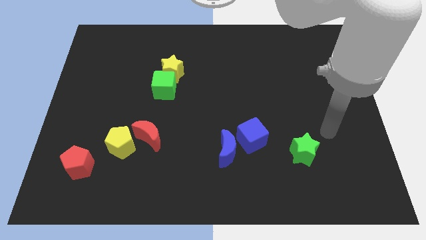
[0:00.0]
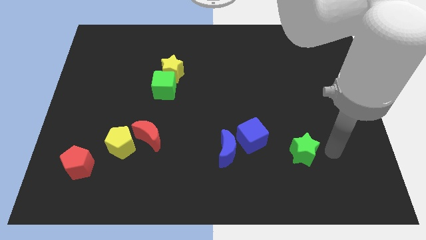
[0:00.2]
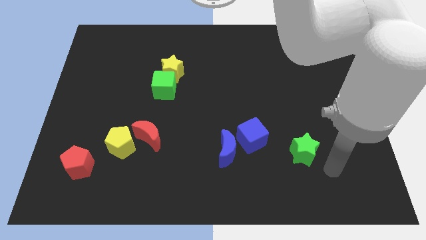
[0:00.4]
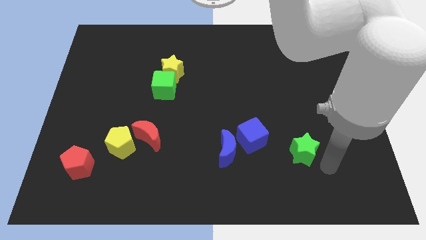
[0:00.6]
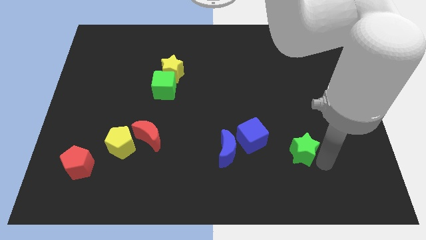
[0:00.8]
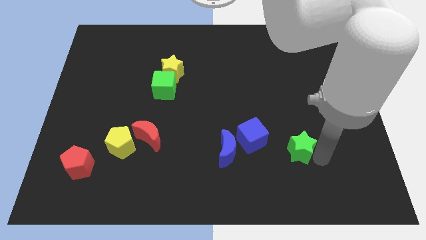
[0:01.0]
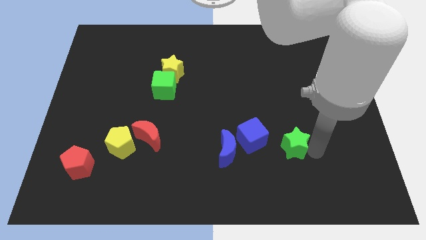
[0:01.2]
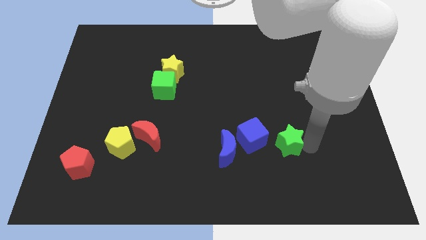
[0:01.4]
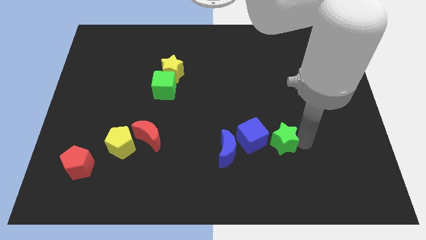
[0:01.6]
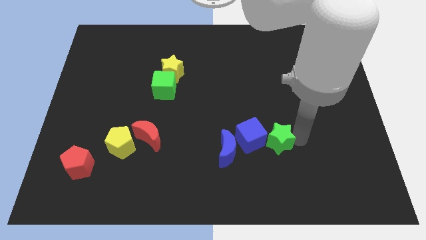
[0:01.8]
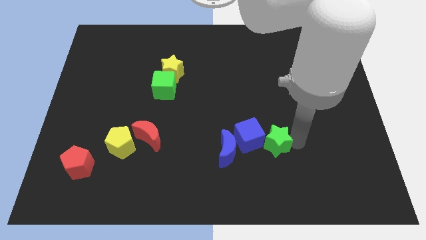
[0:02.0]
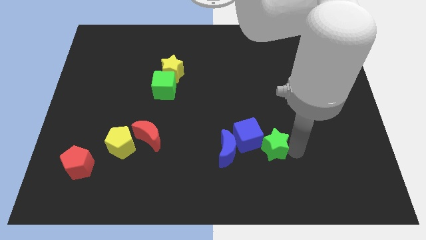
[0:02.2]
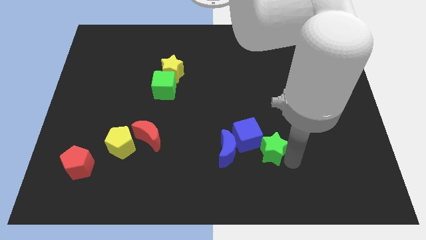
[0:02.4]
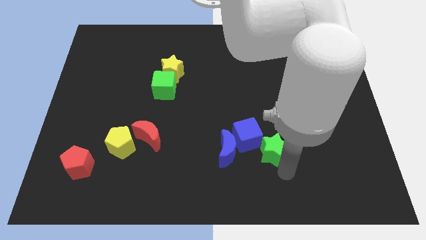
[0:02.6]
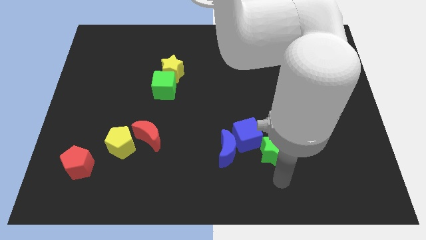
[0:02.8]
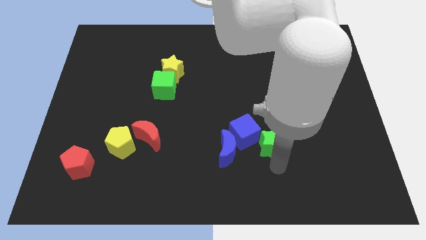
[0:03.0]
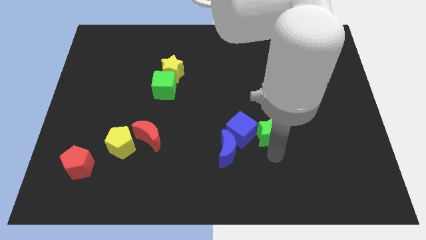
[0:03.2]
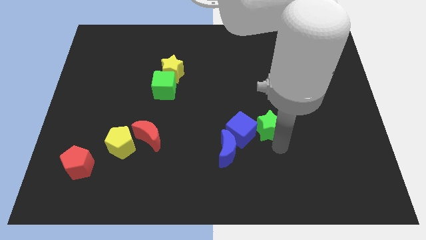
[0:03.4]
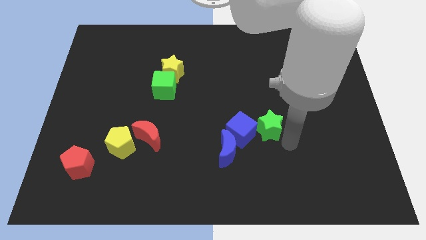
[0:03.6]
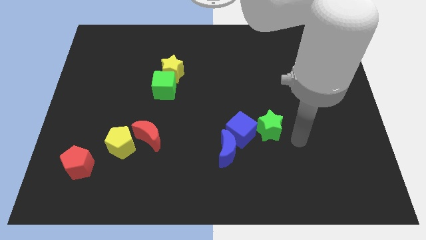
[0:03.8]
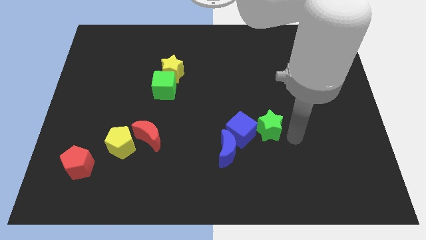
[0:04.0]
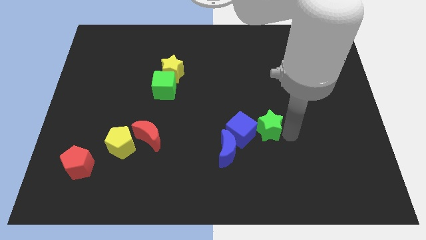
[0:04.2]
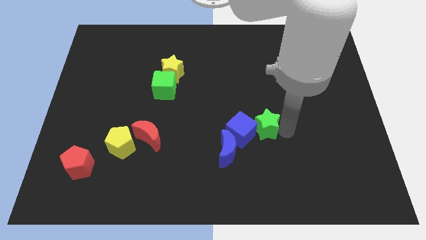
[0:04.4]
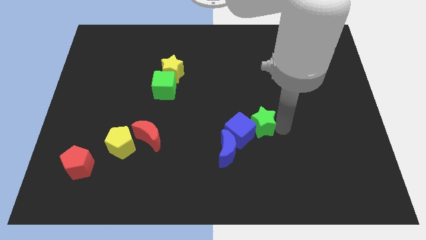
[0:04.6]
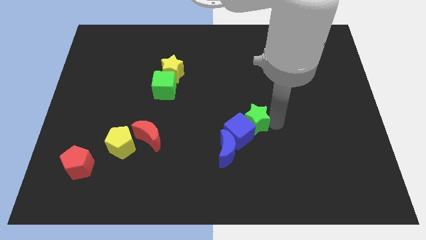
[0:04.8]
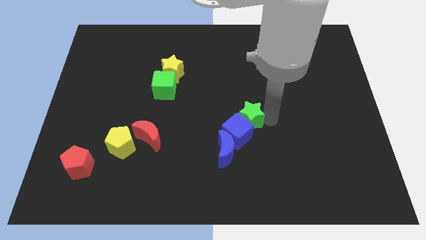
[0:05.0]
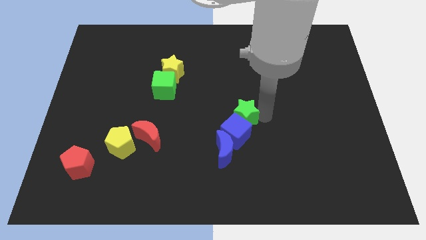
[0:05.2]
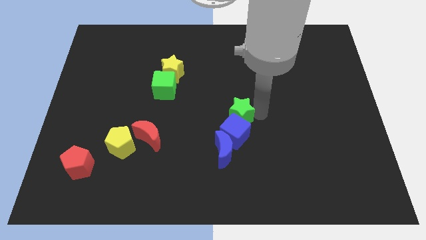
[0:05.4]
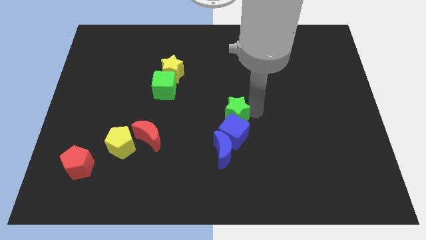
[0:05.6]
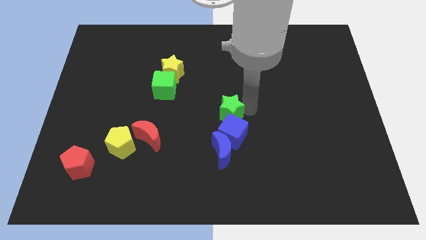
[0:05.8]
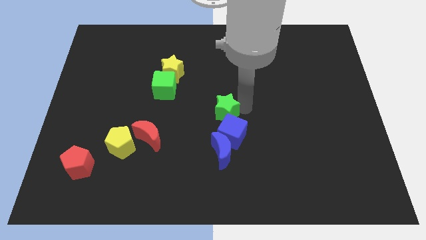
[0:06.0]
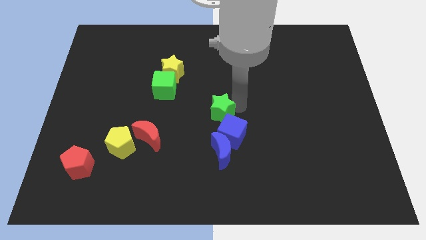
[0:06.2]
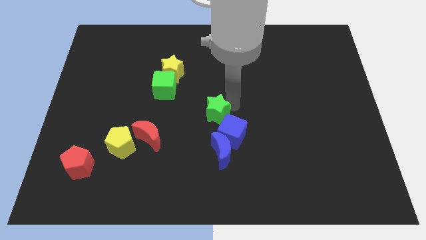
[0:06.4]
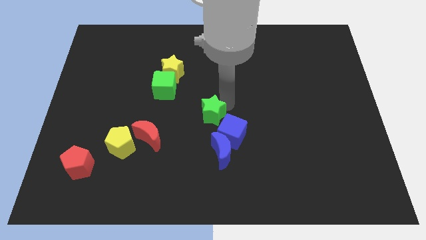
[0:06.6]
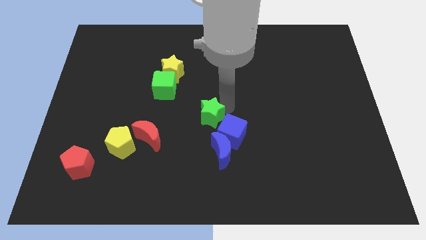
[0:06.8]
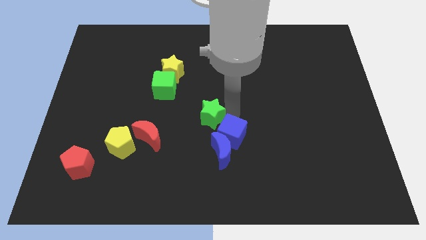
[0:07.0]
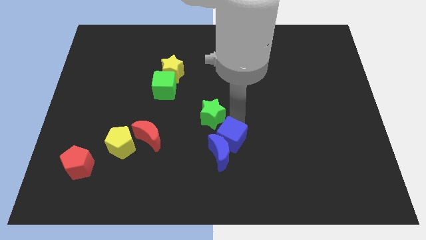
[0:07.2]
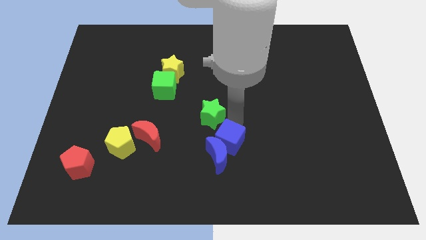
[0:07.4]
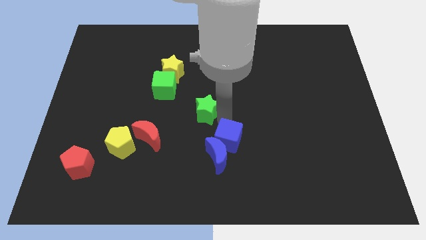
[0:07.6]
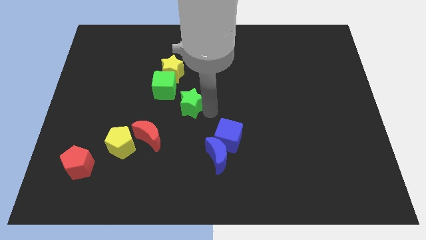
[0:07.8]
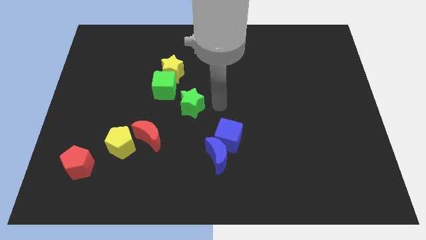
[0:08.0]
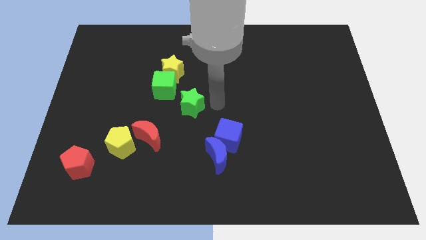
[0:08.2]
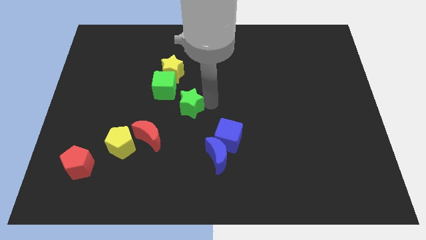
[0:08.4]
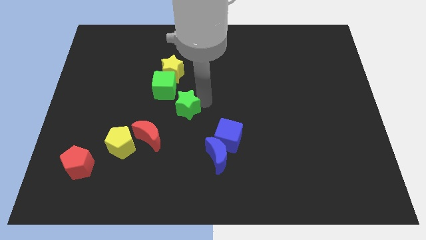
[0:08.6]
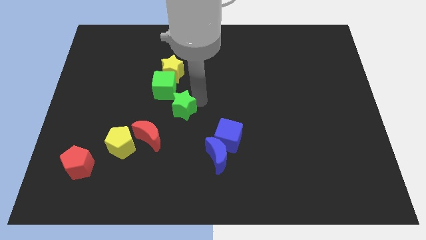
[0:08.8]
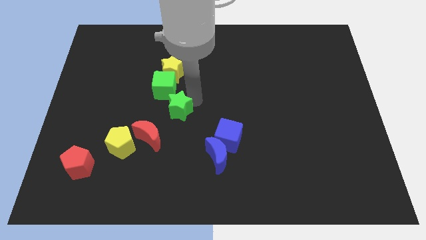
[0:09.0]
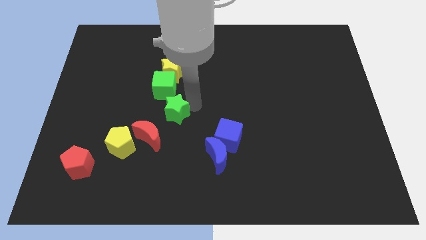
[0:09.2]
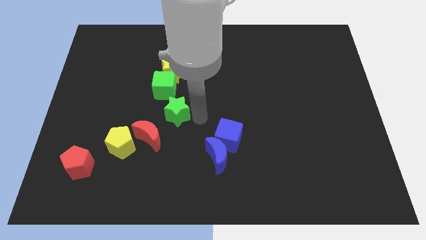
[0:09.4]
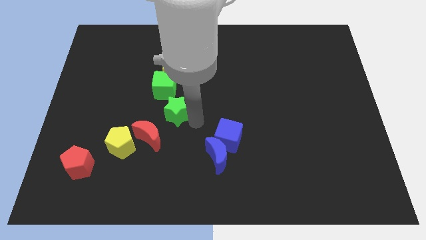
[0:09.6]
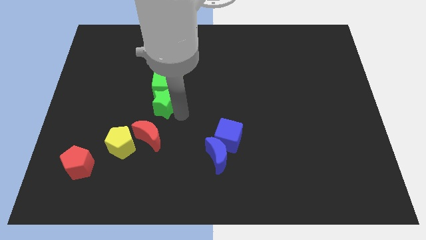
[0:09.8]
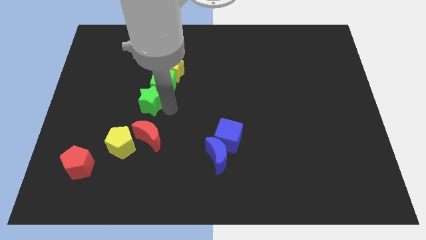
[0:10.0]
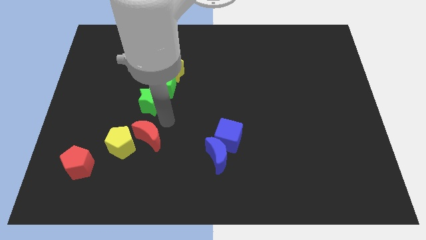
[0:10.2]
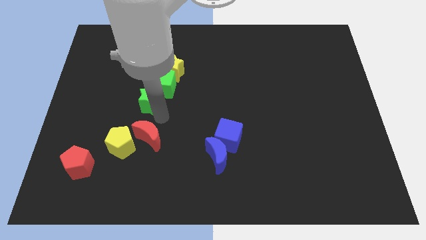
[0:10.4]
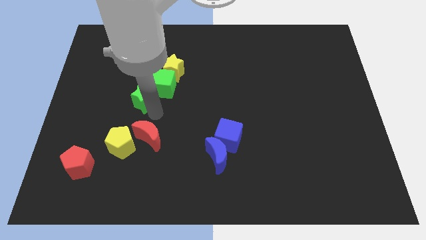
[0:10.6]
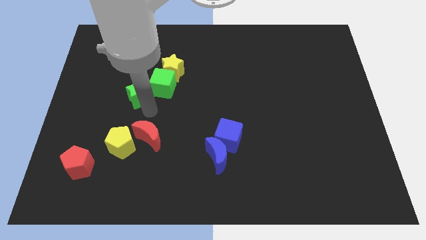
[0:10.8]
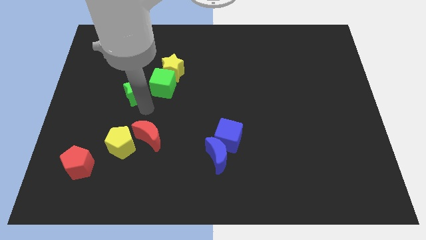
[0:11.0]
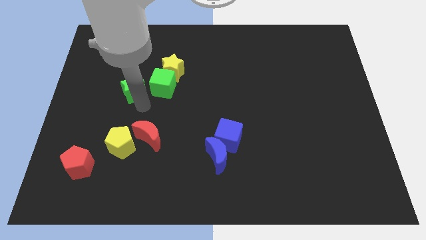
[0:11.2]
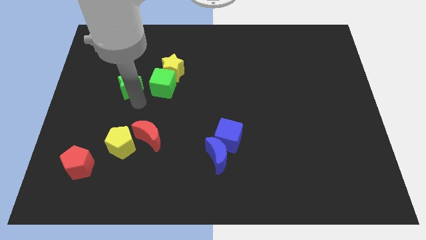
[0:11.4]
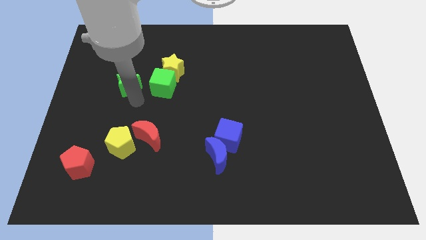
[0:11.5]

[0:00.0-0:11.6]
push the green star just left of the yellow star

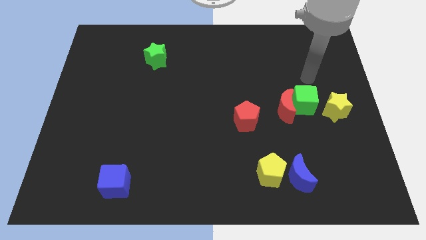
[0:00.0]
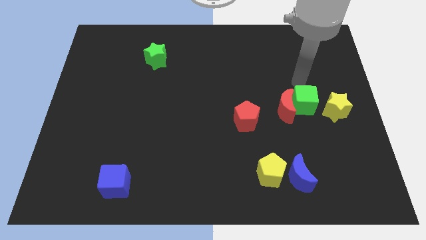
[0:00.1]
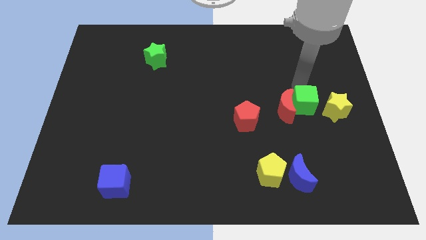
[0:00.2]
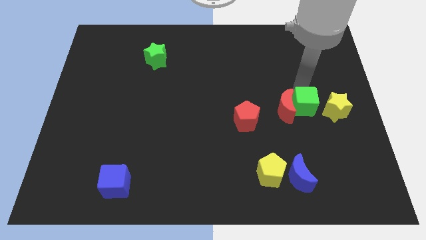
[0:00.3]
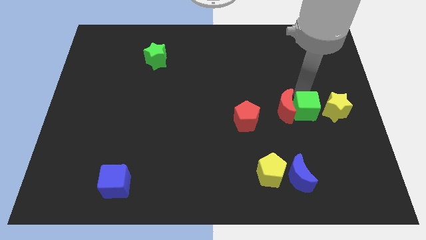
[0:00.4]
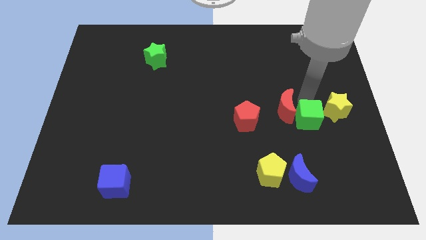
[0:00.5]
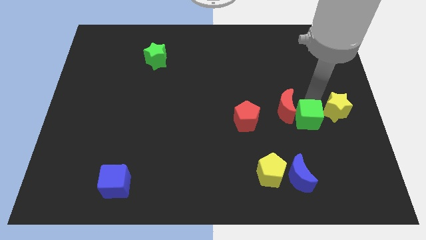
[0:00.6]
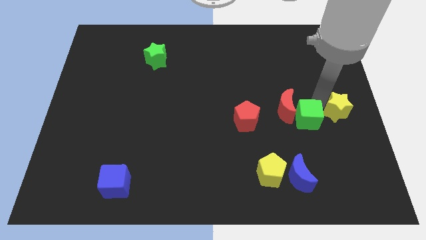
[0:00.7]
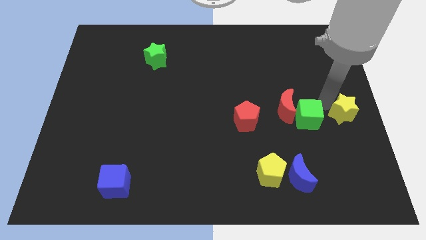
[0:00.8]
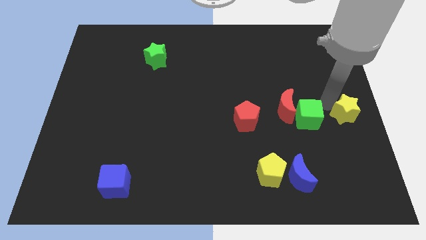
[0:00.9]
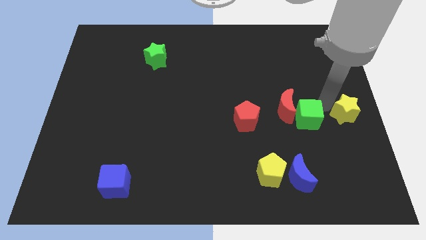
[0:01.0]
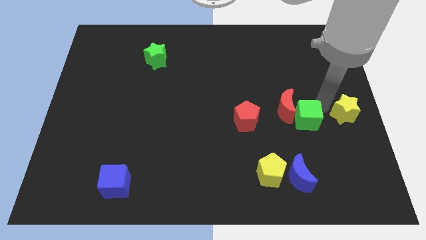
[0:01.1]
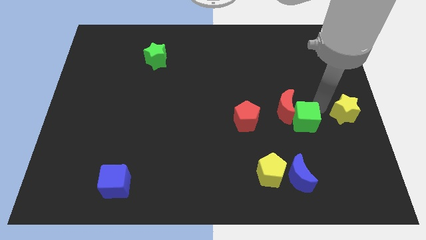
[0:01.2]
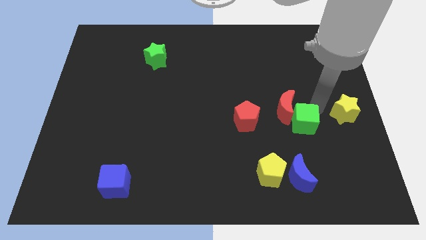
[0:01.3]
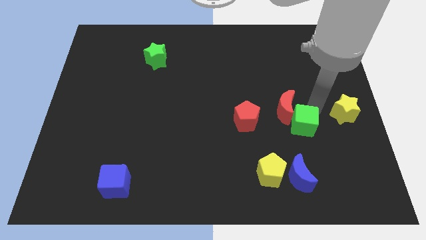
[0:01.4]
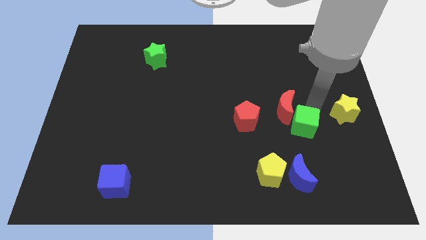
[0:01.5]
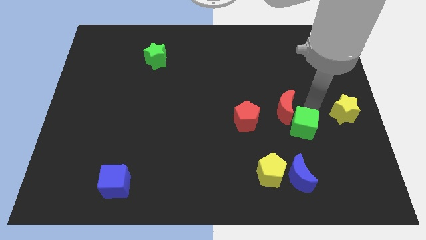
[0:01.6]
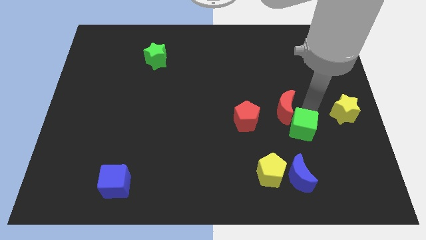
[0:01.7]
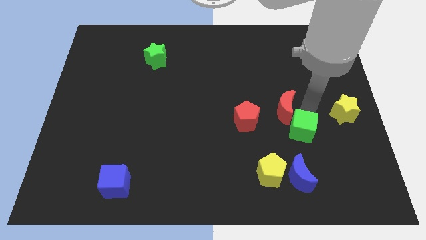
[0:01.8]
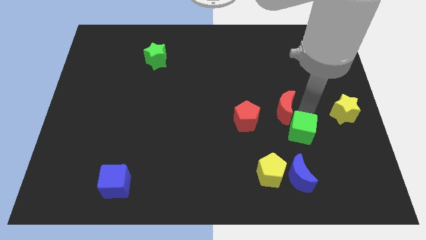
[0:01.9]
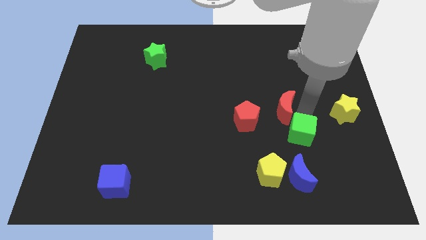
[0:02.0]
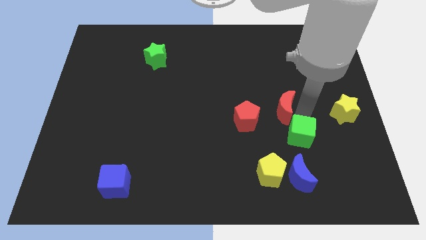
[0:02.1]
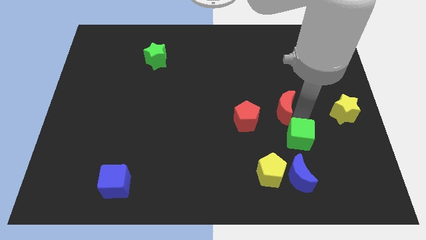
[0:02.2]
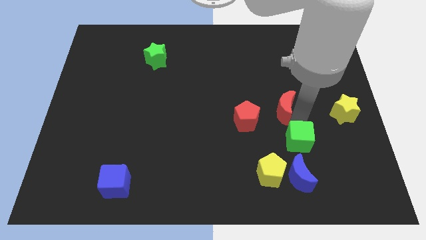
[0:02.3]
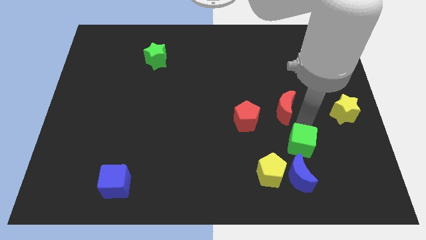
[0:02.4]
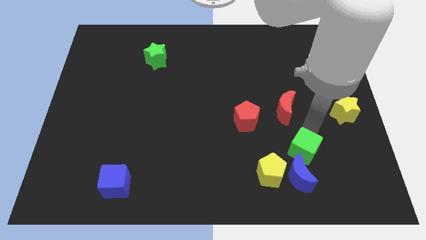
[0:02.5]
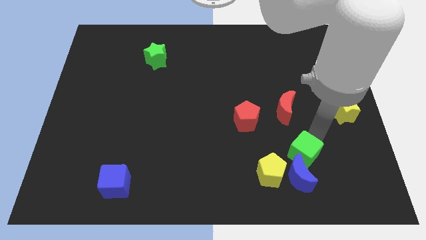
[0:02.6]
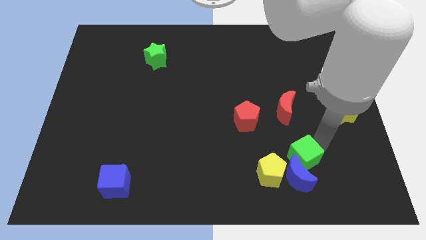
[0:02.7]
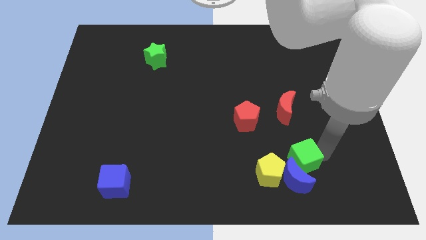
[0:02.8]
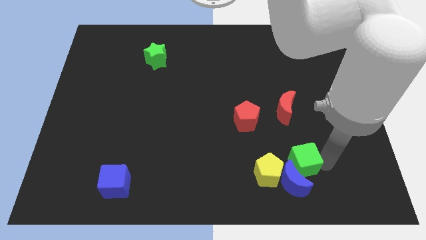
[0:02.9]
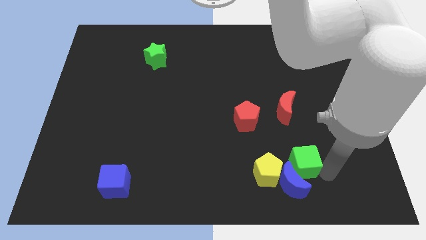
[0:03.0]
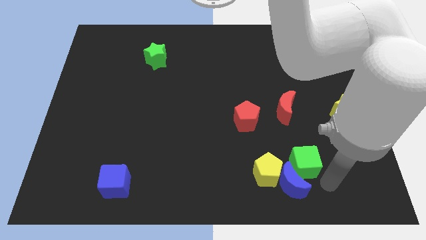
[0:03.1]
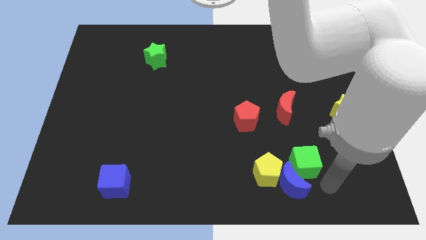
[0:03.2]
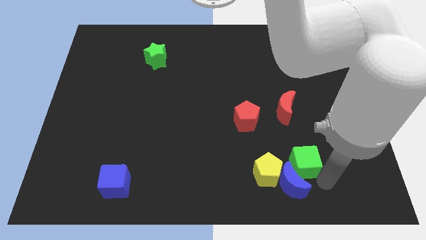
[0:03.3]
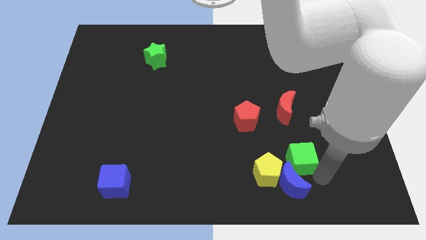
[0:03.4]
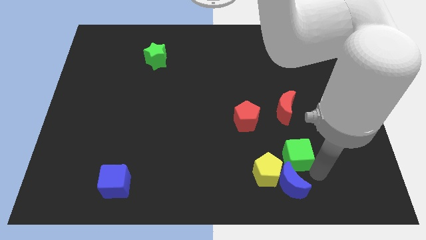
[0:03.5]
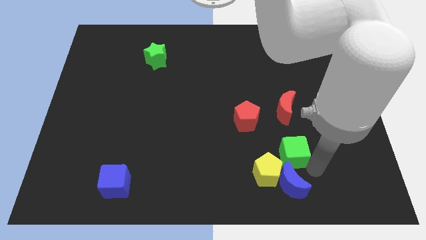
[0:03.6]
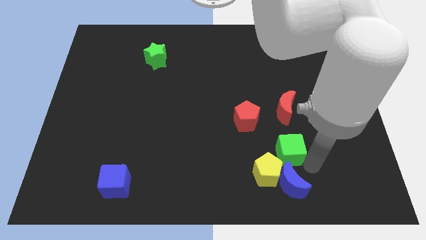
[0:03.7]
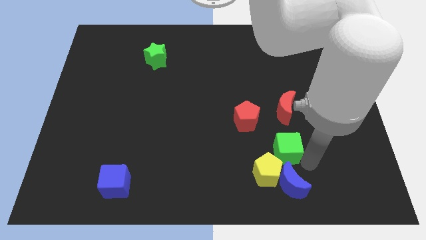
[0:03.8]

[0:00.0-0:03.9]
push the green cube to the top side of the yellow pentagon
